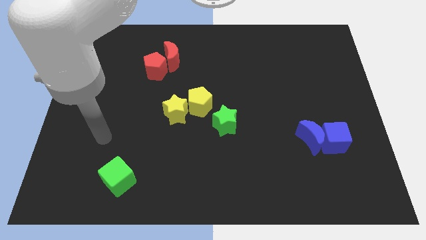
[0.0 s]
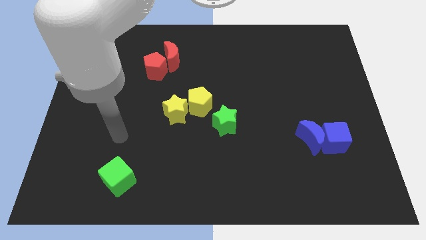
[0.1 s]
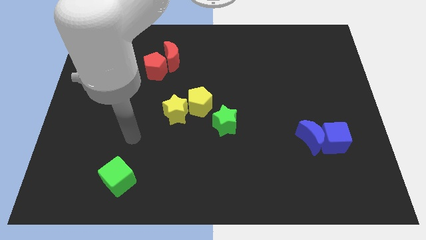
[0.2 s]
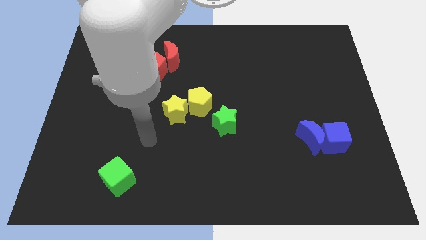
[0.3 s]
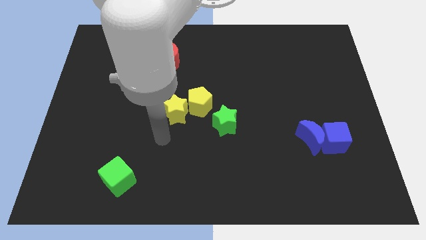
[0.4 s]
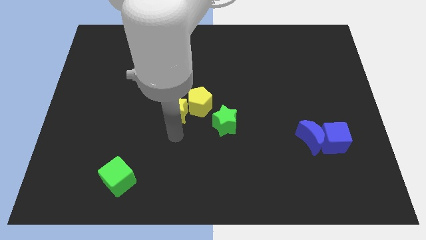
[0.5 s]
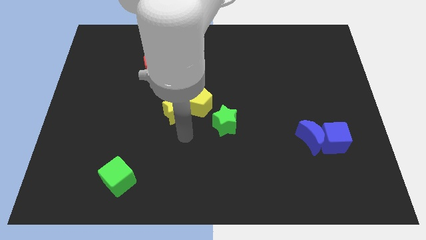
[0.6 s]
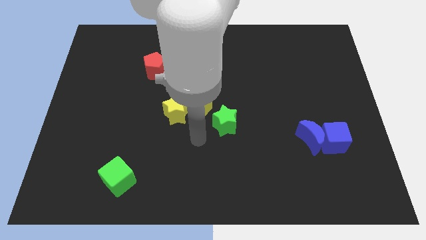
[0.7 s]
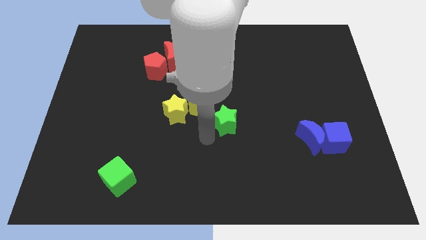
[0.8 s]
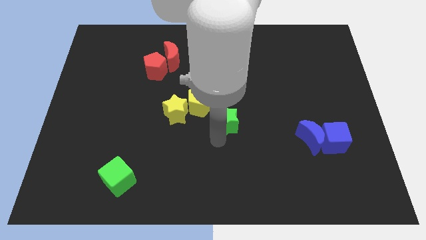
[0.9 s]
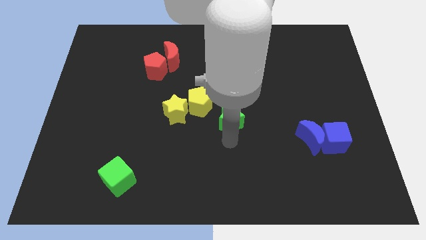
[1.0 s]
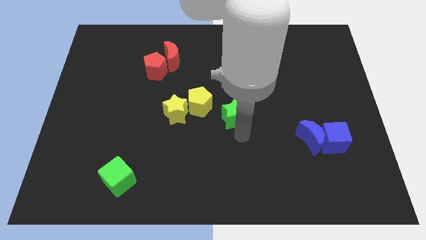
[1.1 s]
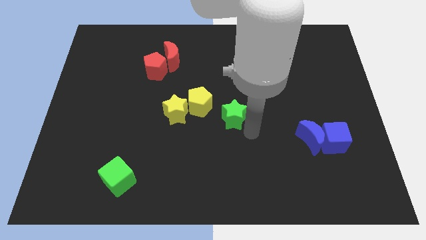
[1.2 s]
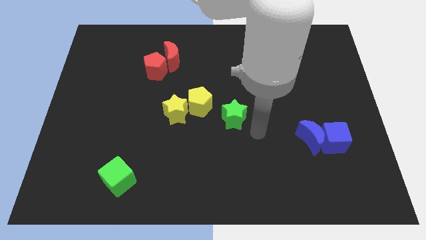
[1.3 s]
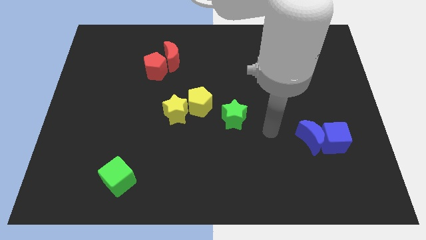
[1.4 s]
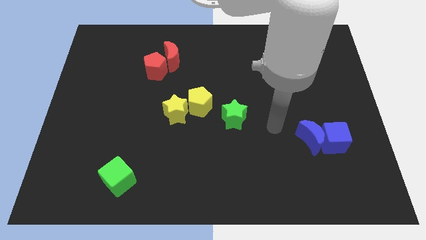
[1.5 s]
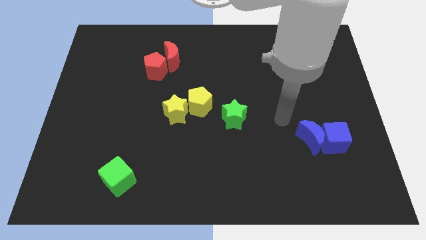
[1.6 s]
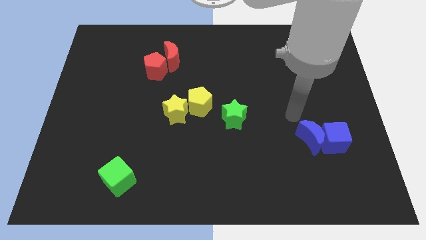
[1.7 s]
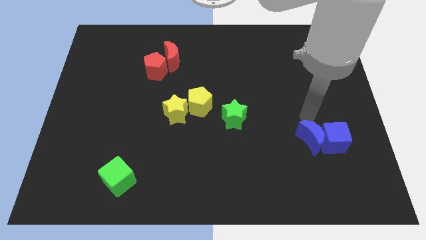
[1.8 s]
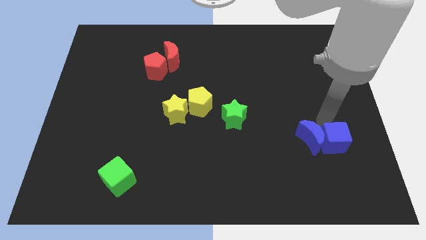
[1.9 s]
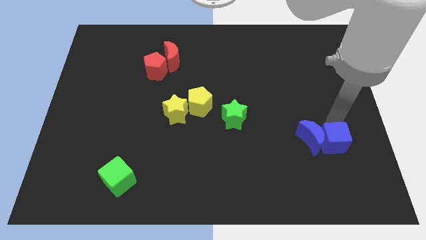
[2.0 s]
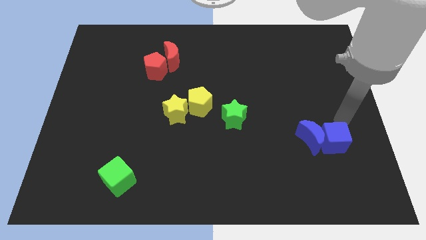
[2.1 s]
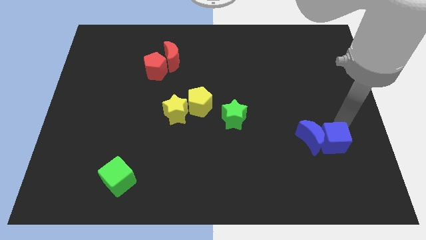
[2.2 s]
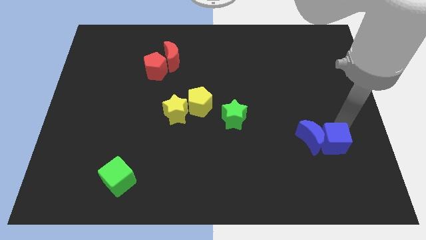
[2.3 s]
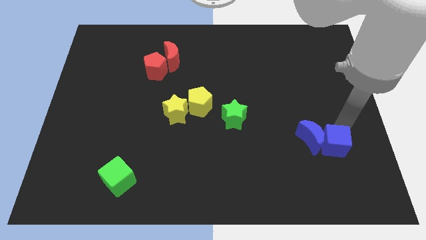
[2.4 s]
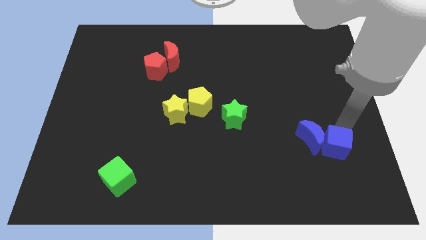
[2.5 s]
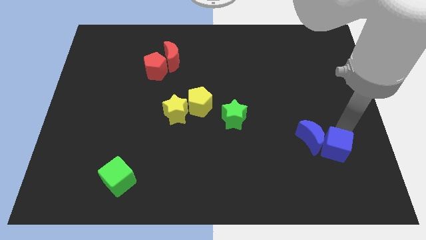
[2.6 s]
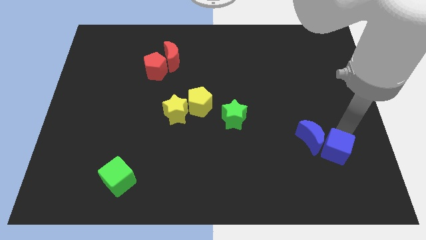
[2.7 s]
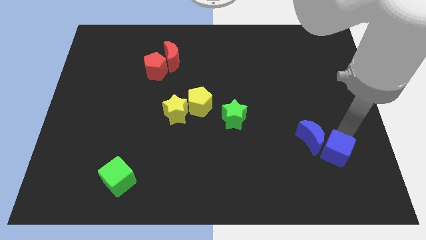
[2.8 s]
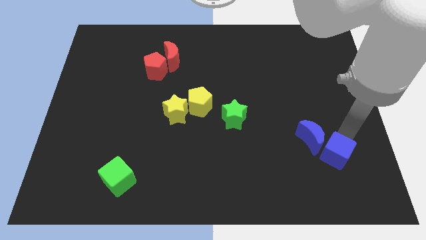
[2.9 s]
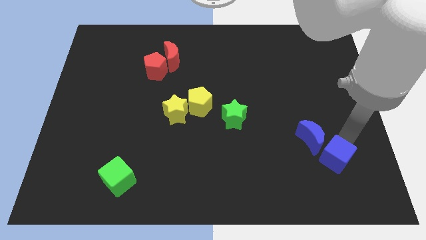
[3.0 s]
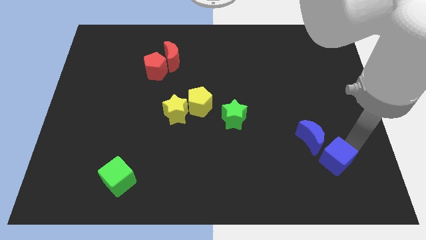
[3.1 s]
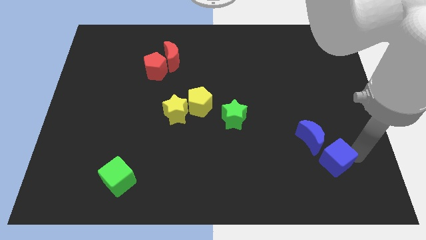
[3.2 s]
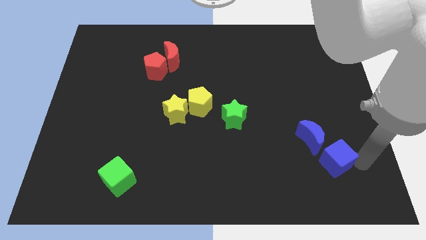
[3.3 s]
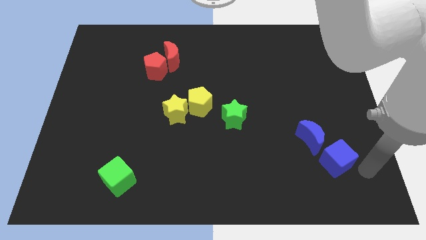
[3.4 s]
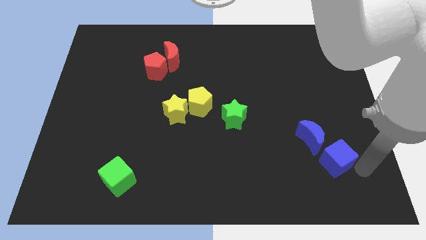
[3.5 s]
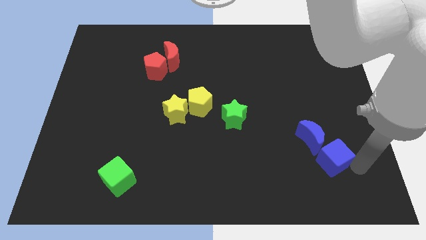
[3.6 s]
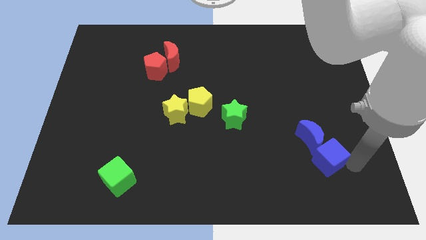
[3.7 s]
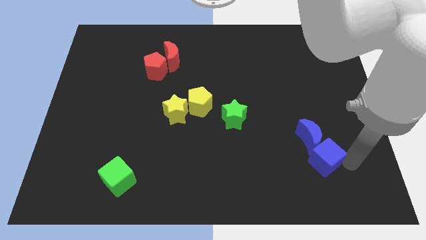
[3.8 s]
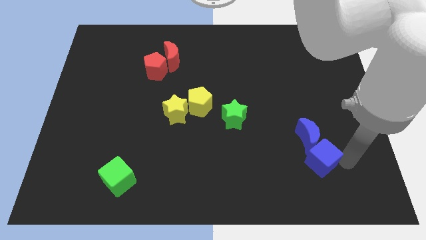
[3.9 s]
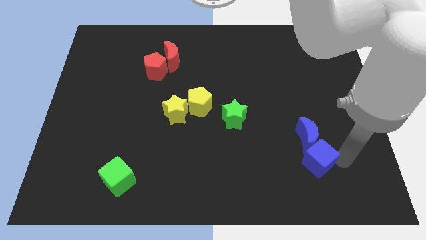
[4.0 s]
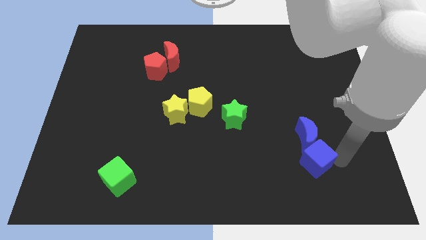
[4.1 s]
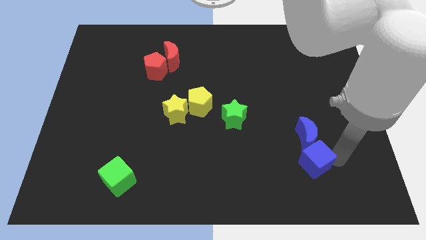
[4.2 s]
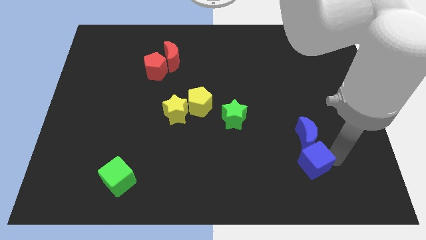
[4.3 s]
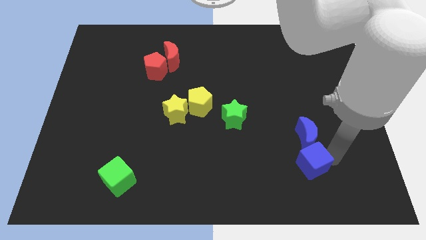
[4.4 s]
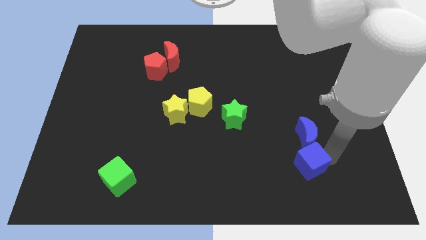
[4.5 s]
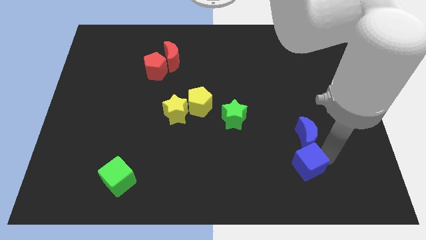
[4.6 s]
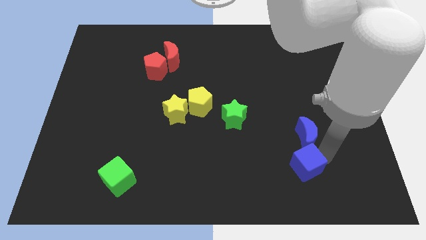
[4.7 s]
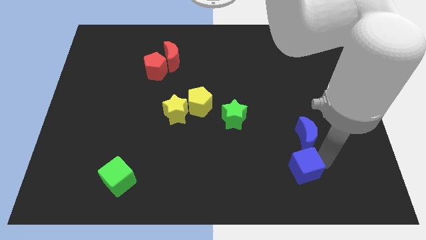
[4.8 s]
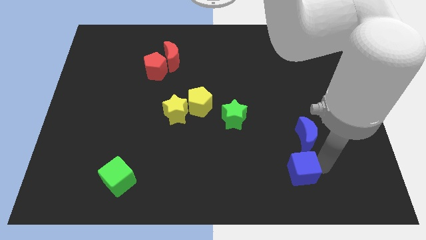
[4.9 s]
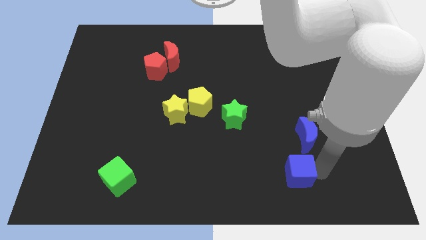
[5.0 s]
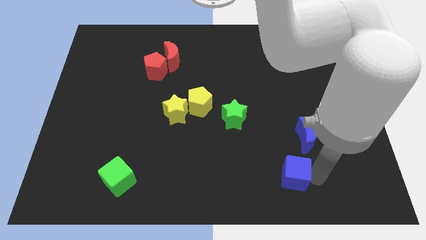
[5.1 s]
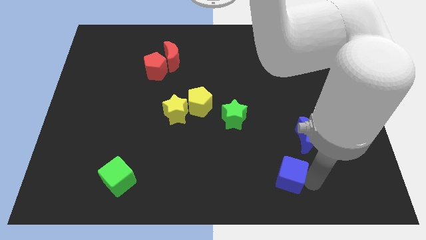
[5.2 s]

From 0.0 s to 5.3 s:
move the blue cube a little left

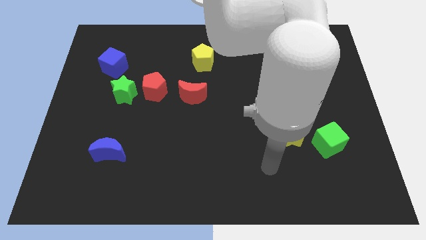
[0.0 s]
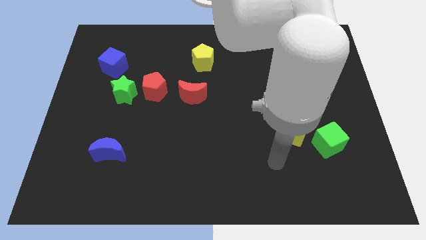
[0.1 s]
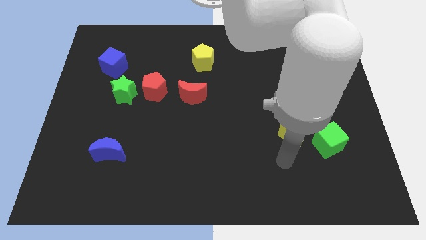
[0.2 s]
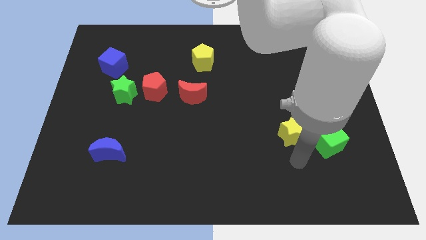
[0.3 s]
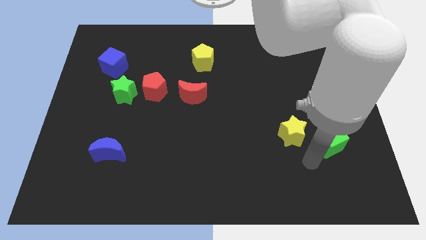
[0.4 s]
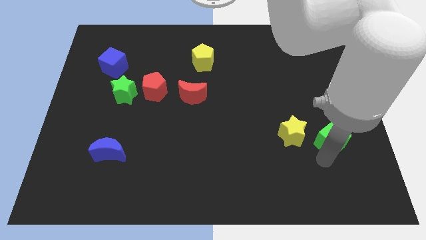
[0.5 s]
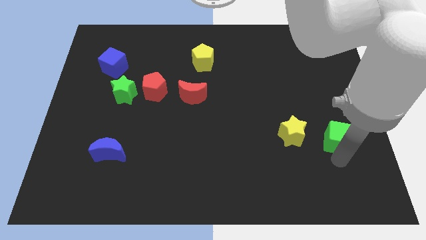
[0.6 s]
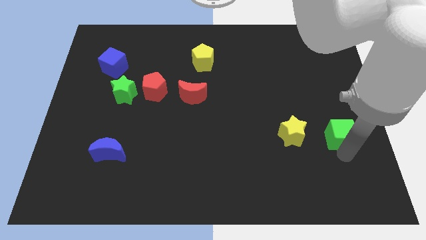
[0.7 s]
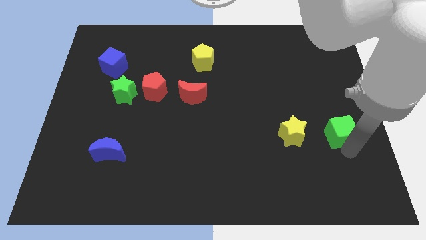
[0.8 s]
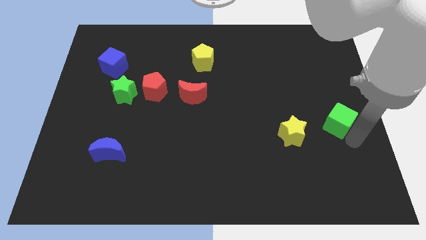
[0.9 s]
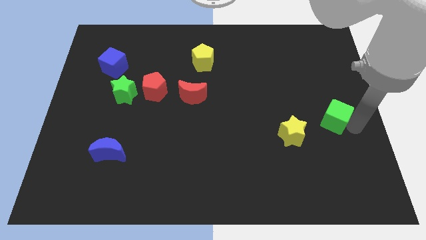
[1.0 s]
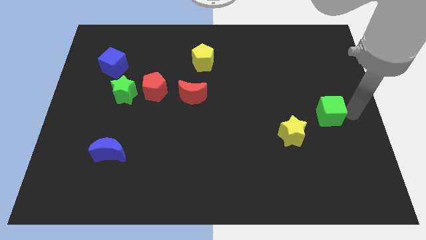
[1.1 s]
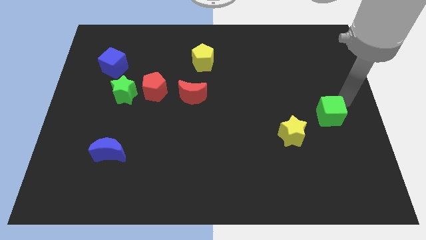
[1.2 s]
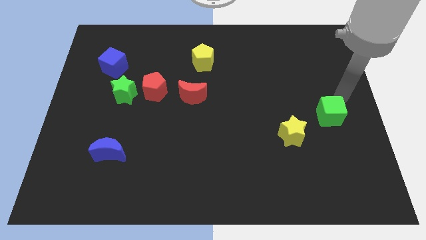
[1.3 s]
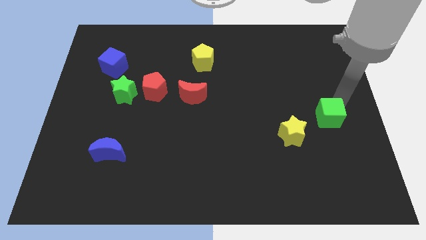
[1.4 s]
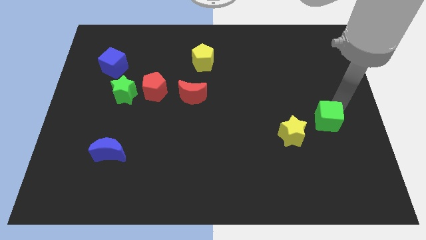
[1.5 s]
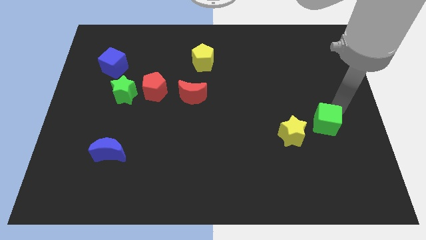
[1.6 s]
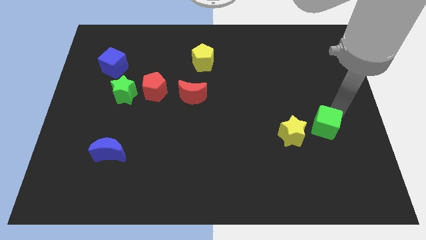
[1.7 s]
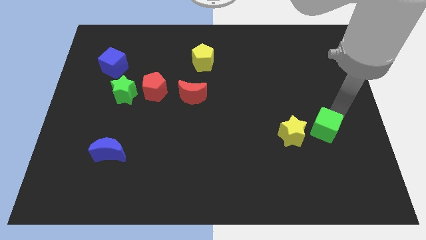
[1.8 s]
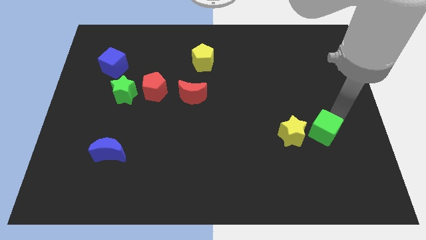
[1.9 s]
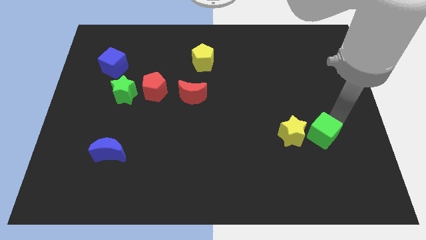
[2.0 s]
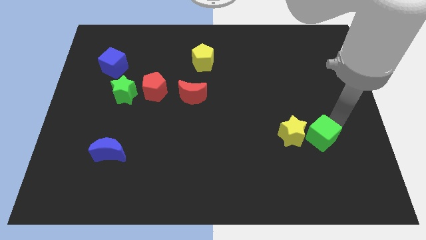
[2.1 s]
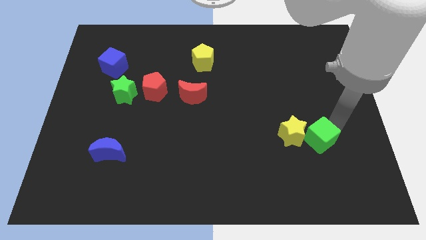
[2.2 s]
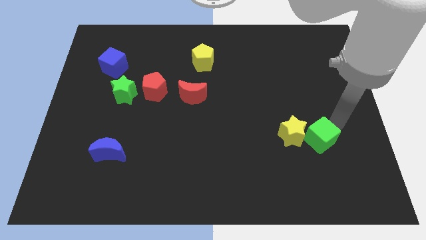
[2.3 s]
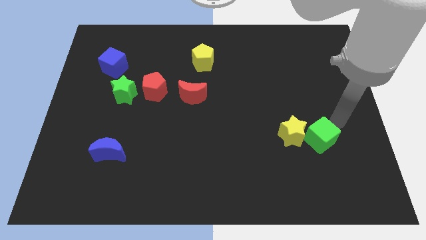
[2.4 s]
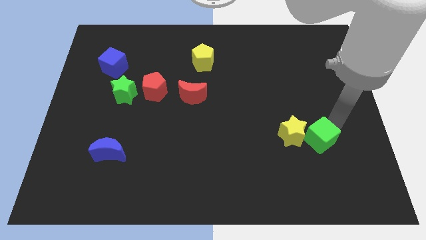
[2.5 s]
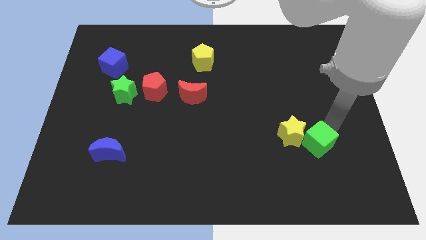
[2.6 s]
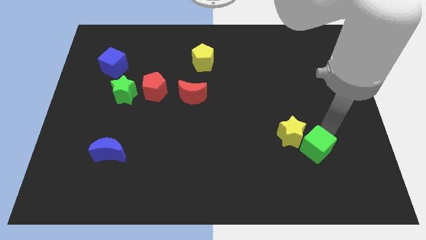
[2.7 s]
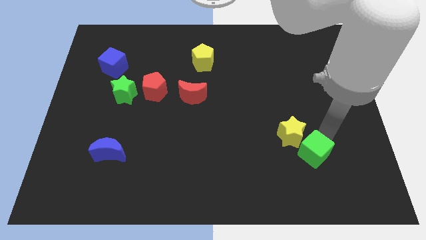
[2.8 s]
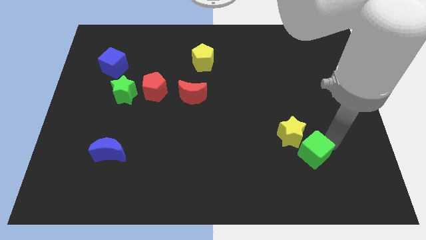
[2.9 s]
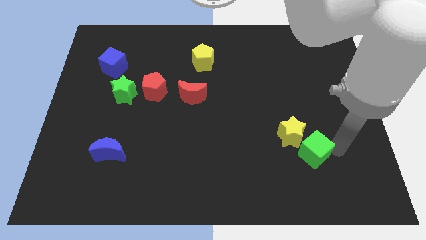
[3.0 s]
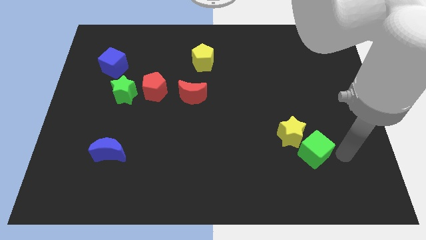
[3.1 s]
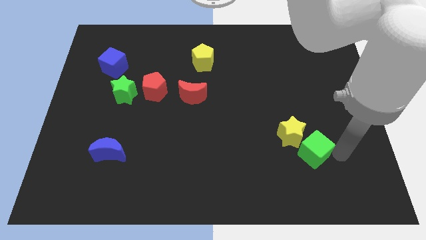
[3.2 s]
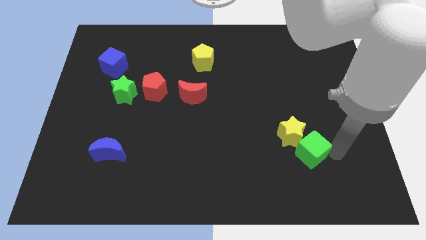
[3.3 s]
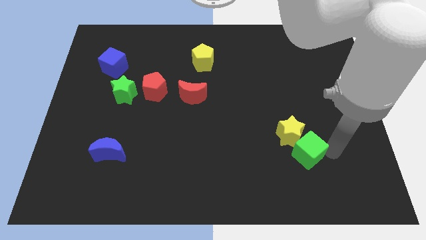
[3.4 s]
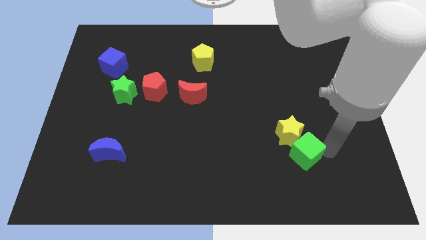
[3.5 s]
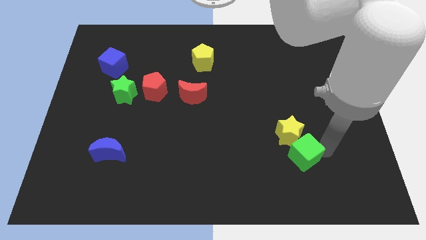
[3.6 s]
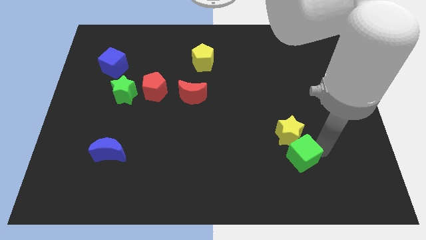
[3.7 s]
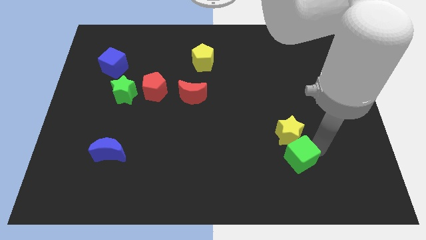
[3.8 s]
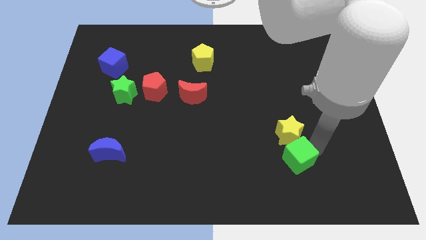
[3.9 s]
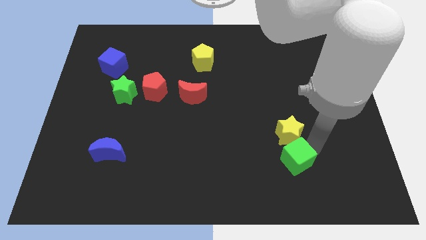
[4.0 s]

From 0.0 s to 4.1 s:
slide the green cube a little bit to the left
